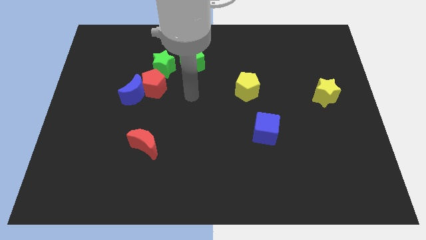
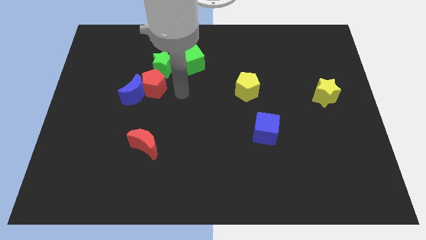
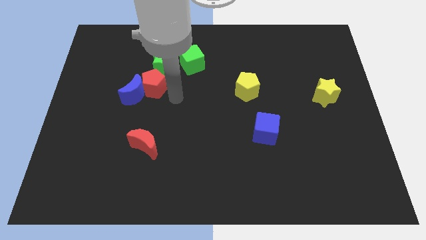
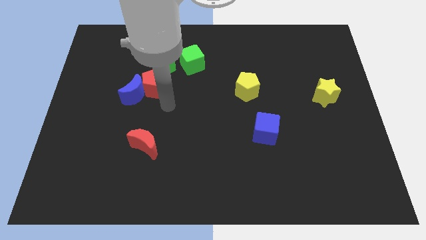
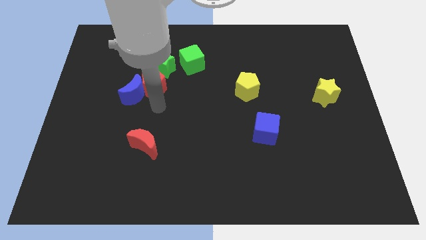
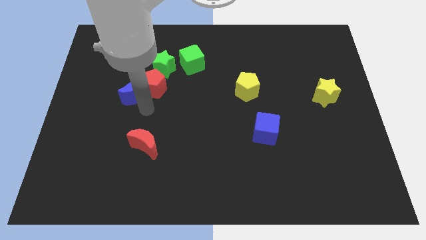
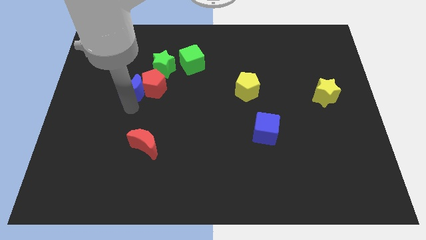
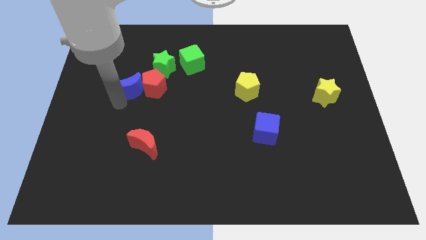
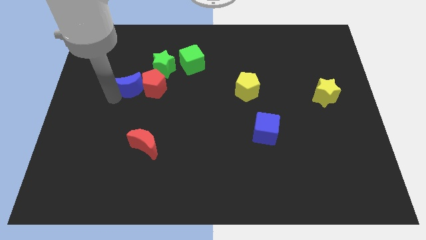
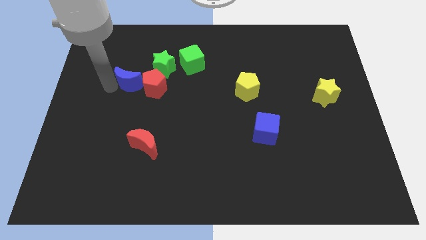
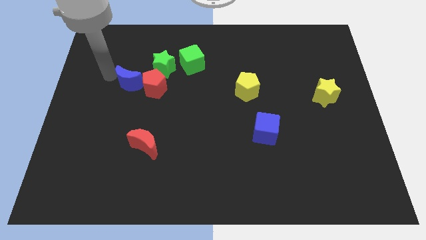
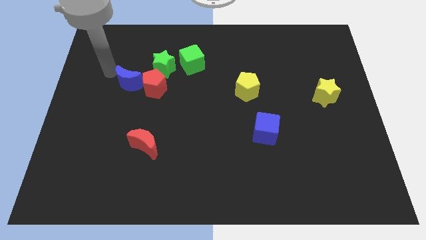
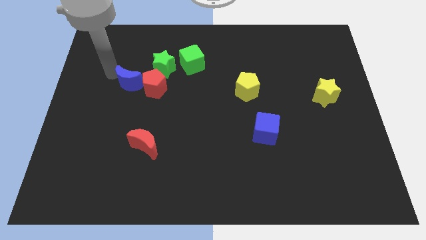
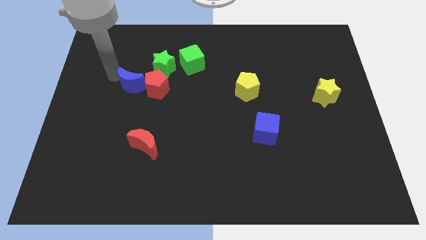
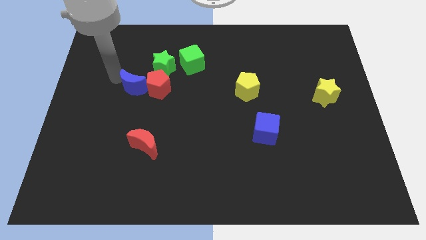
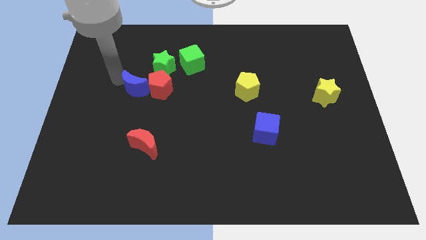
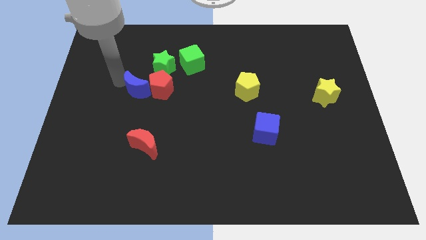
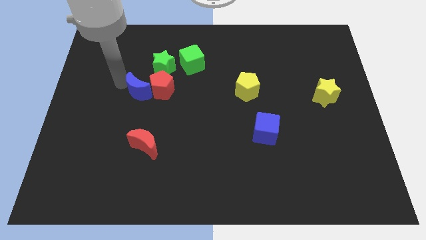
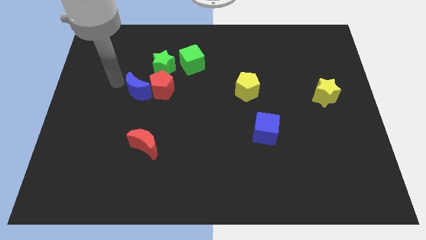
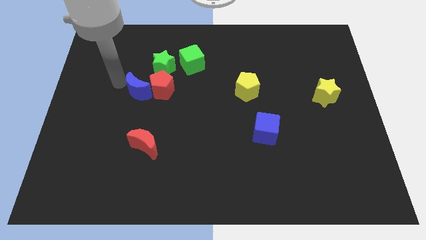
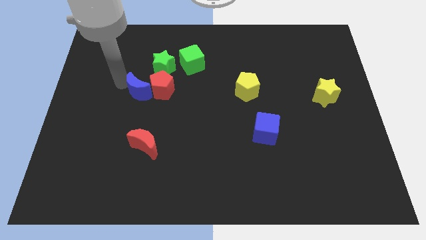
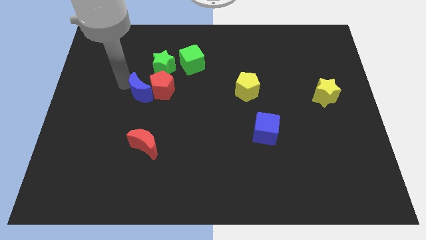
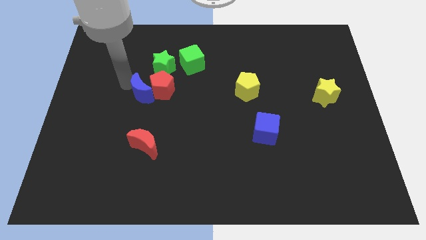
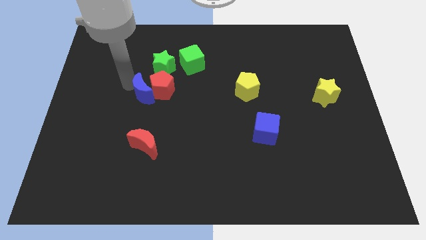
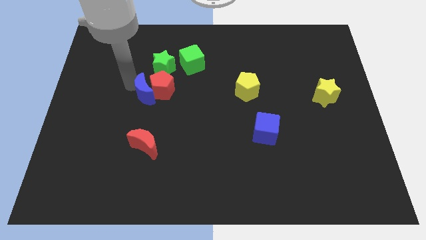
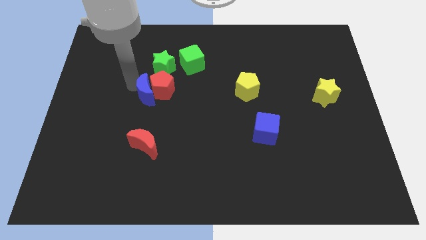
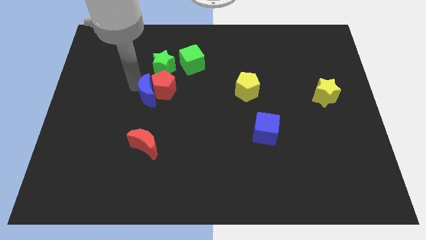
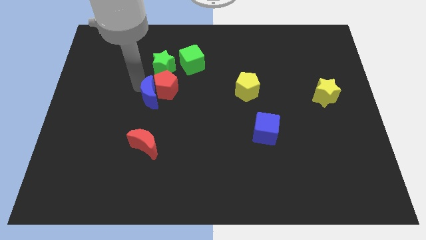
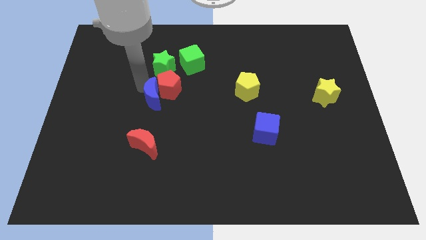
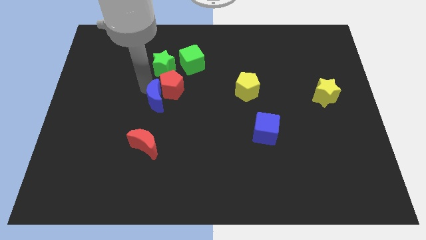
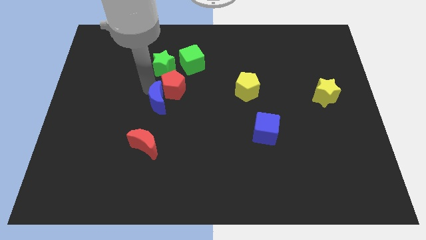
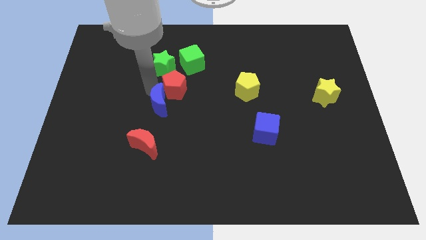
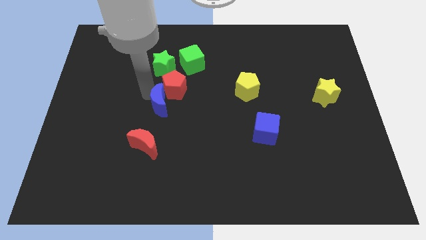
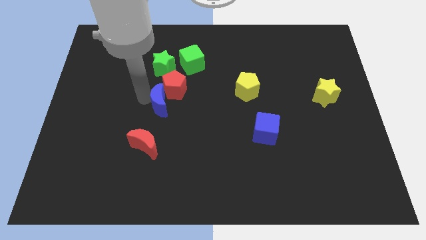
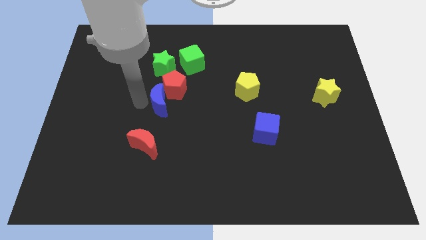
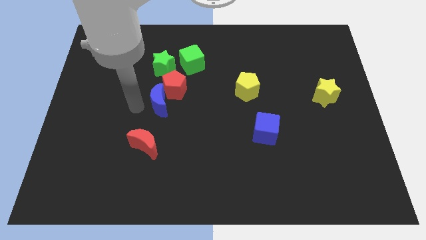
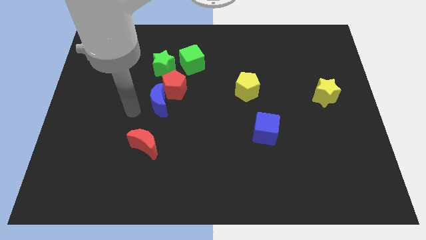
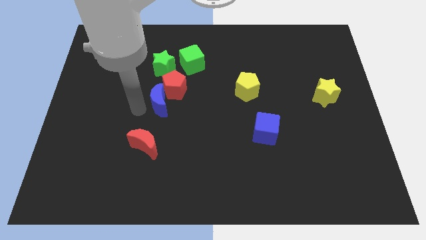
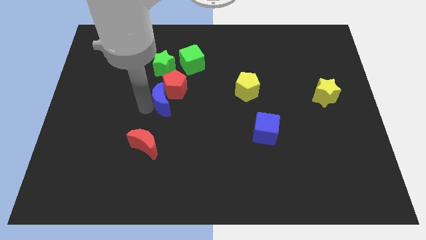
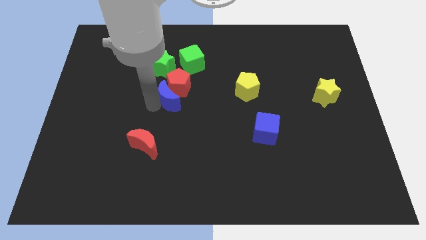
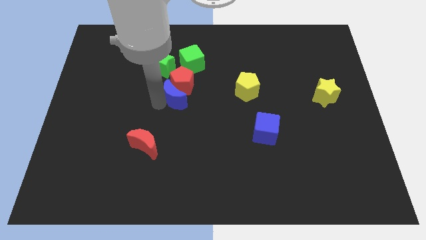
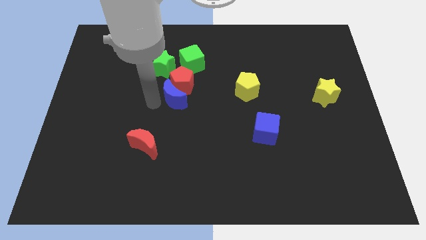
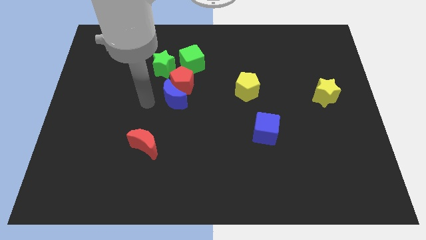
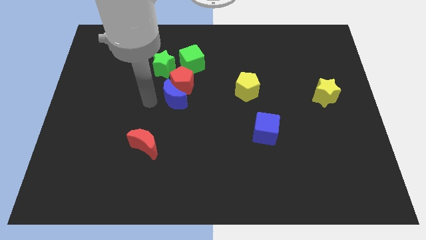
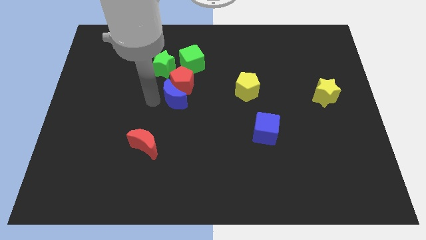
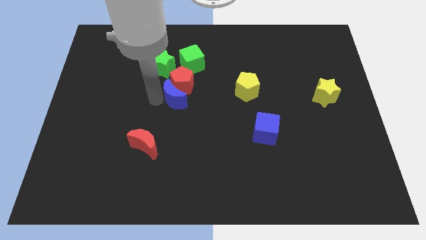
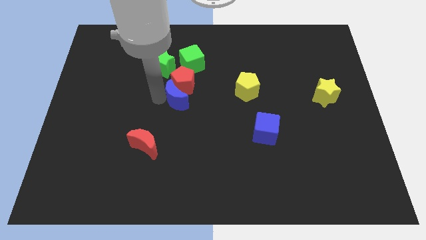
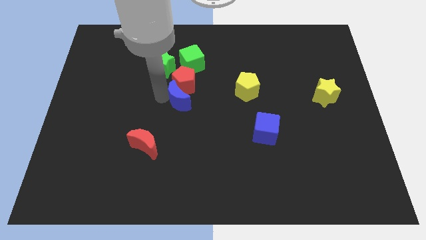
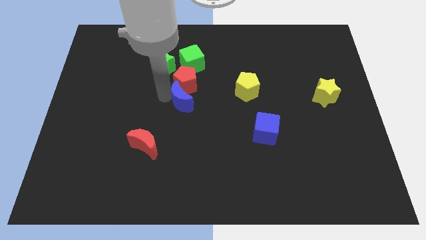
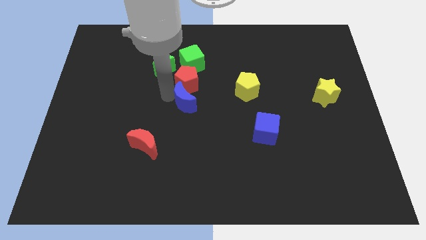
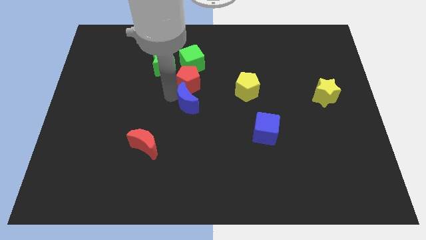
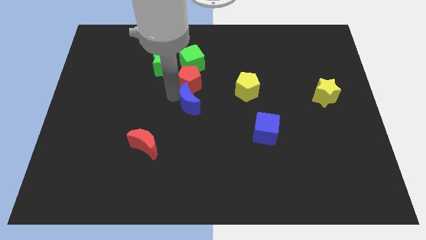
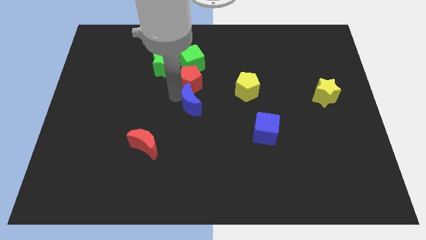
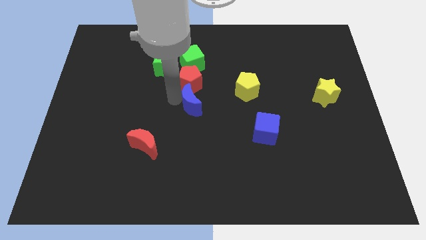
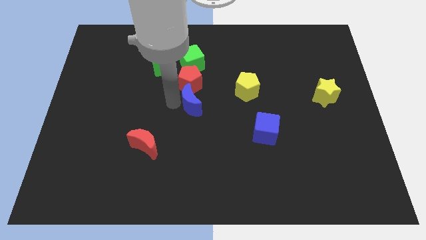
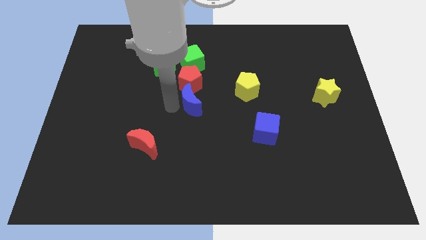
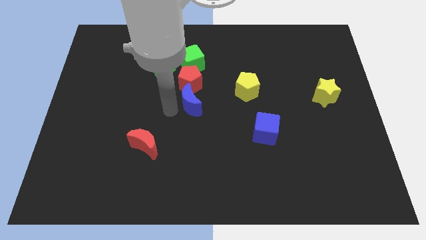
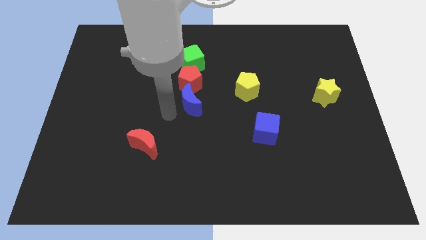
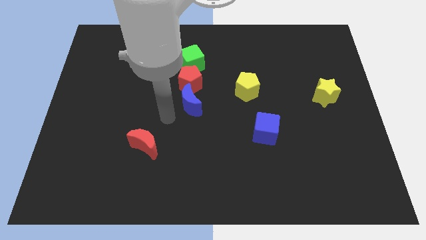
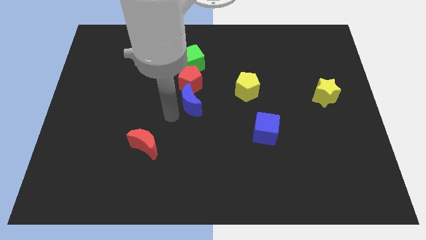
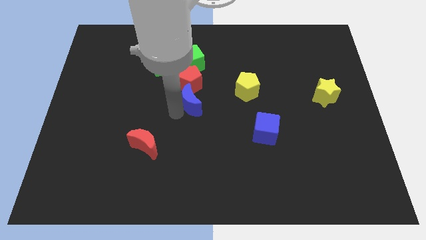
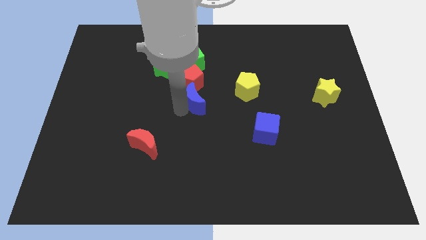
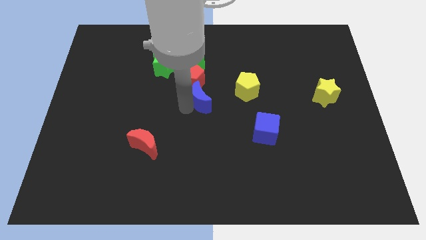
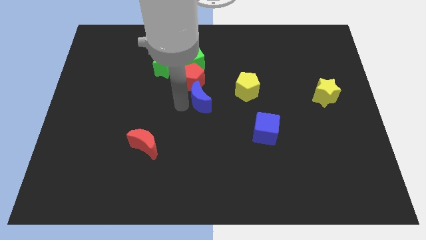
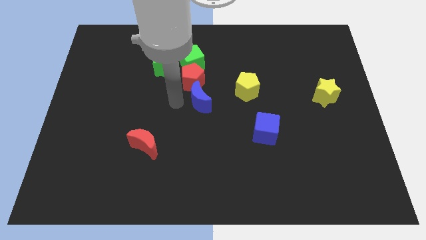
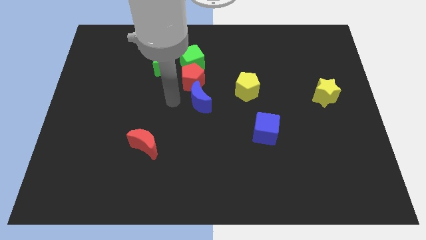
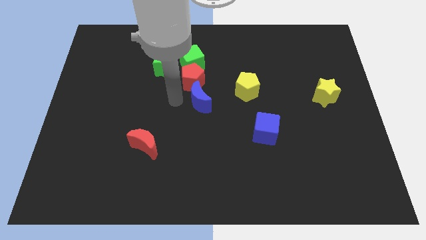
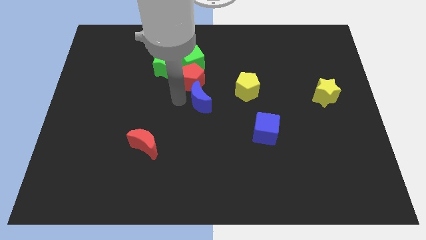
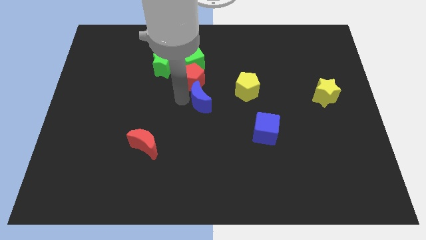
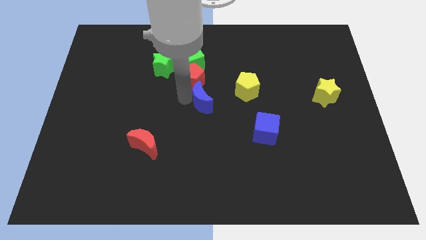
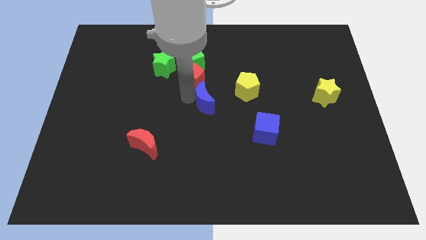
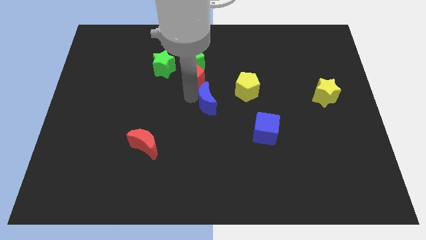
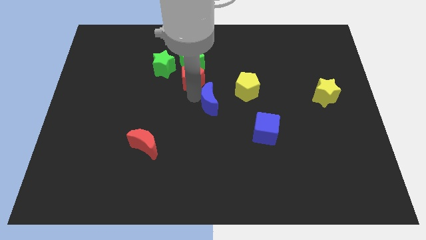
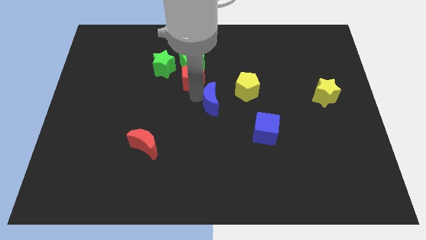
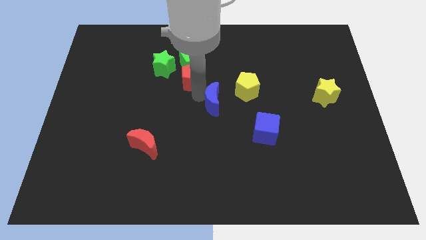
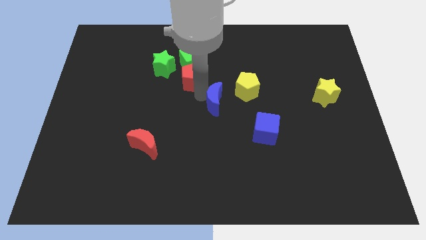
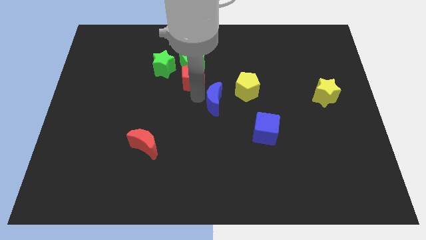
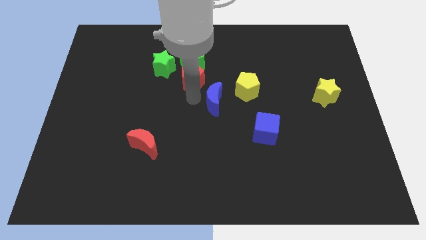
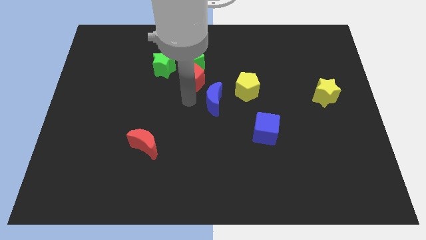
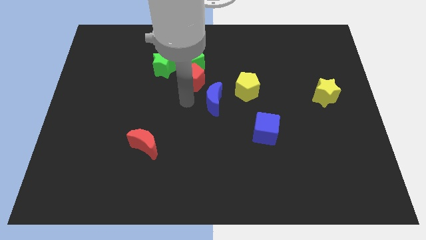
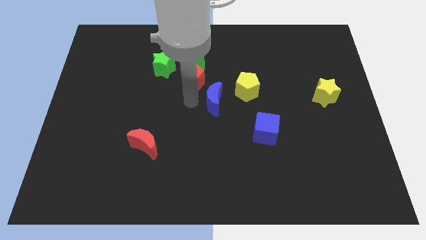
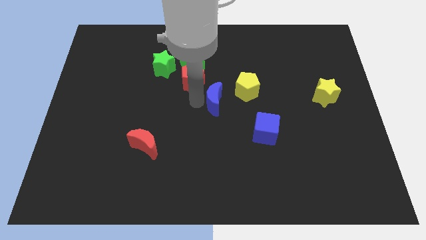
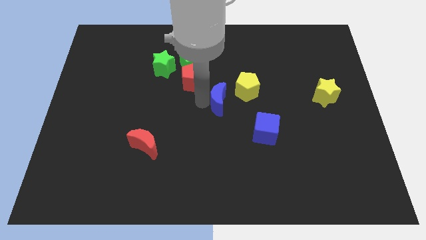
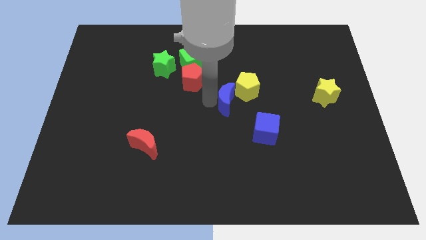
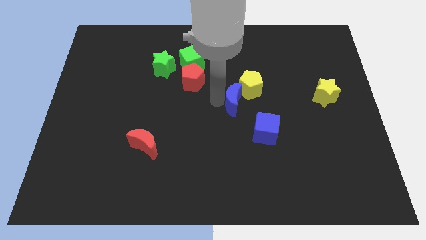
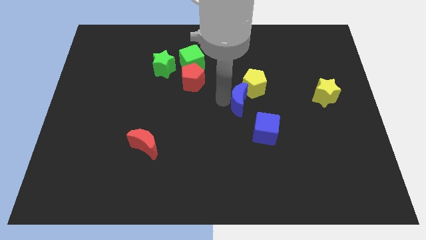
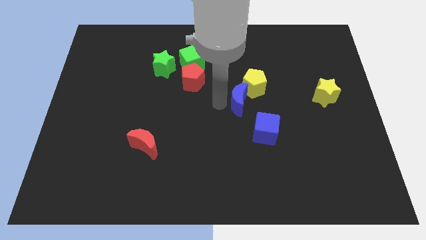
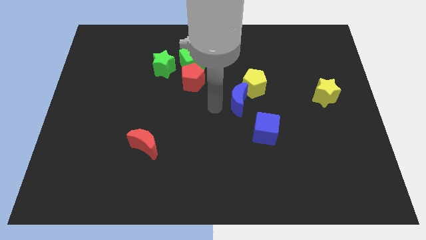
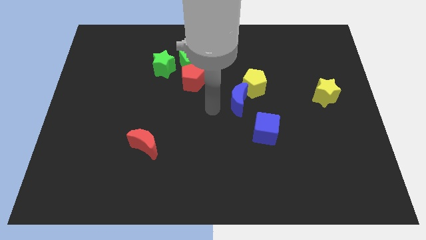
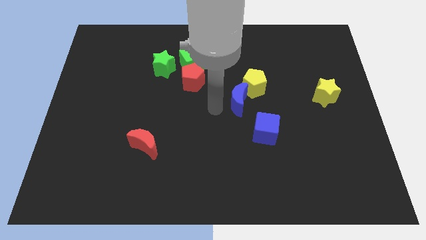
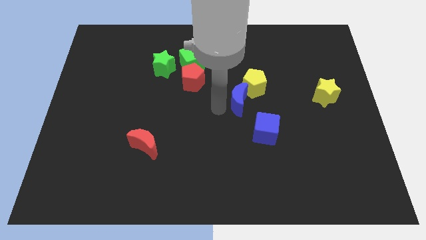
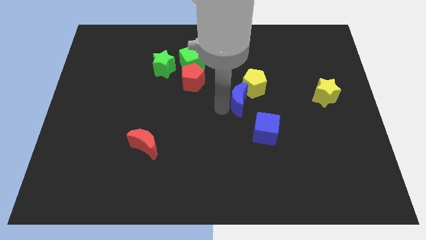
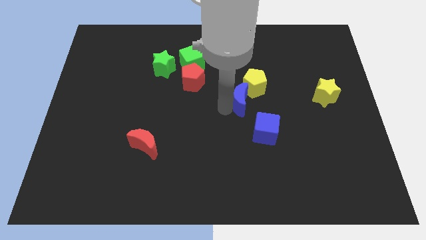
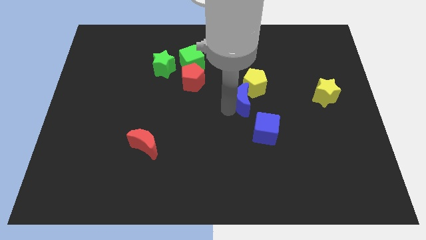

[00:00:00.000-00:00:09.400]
move the blue moon to the top side of the blue cube
